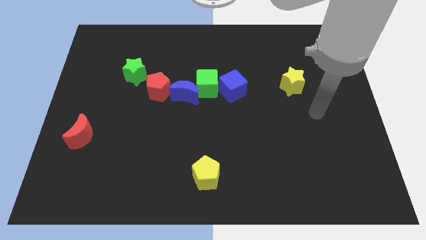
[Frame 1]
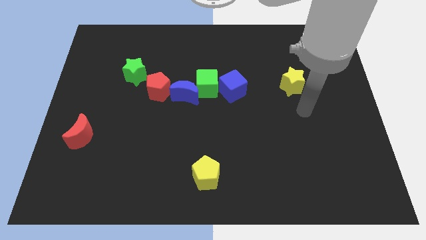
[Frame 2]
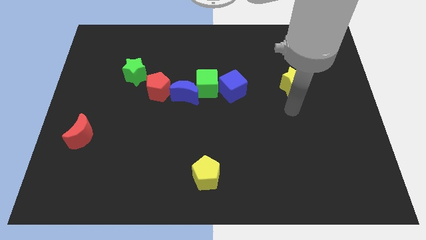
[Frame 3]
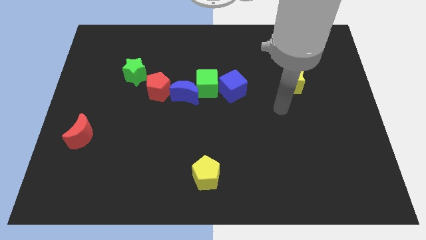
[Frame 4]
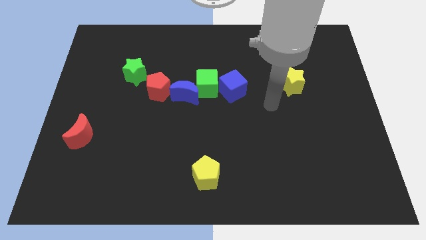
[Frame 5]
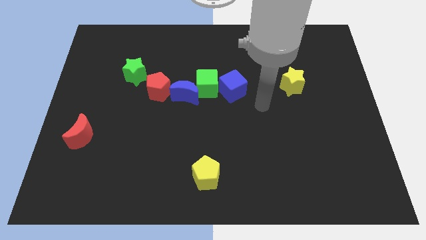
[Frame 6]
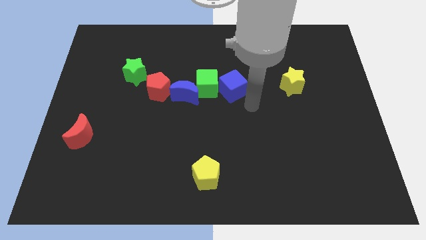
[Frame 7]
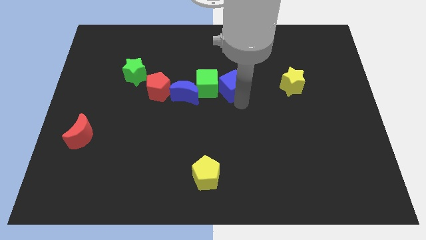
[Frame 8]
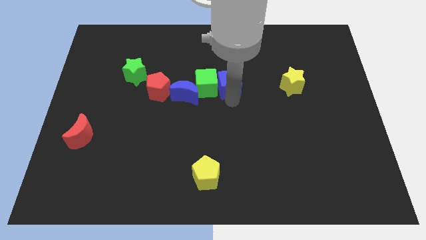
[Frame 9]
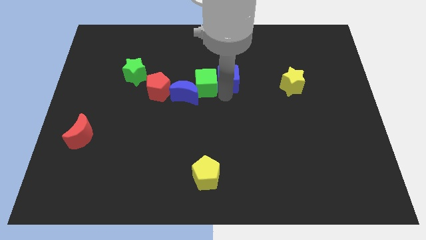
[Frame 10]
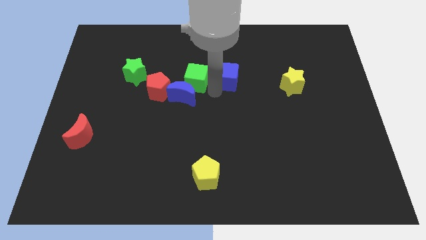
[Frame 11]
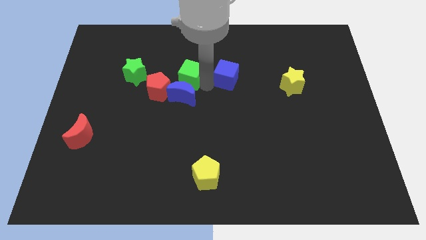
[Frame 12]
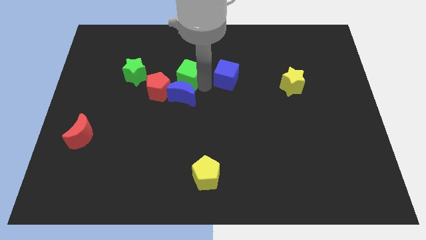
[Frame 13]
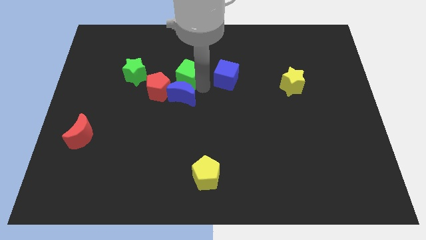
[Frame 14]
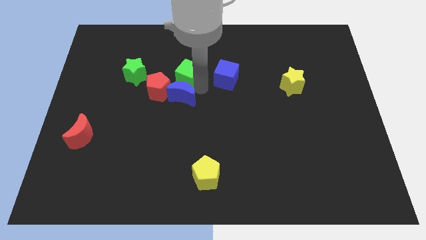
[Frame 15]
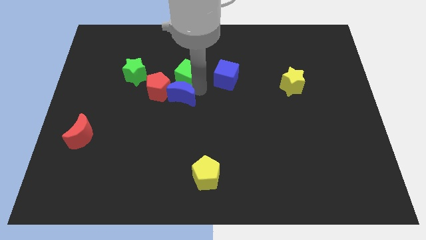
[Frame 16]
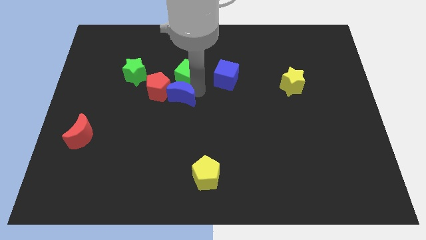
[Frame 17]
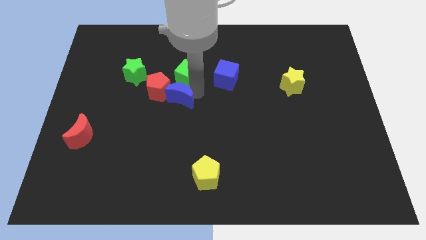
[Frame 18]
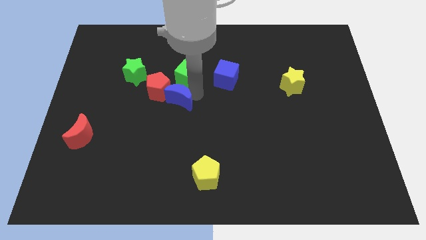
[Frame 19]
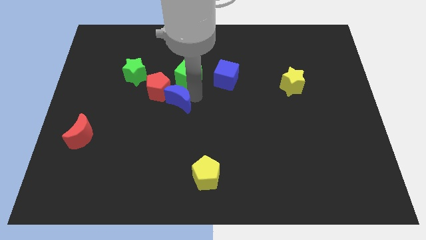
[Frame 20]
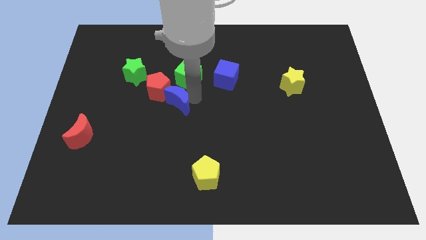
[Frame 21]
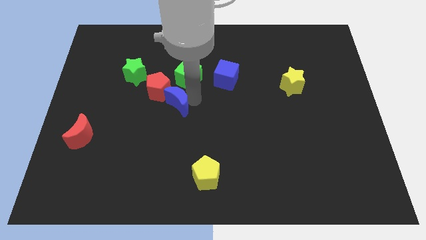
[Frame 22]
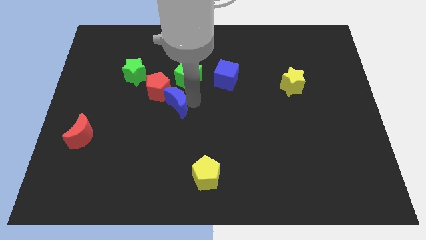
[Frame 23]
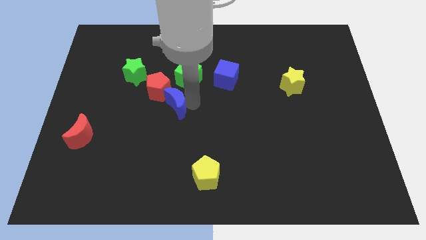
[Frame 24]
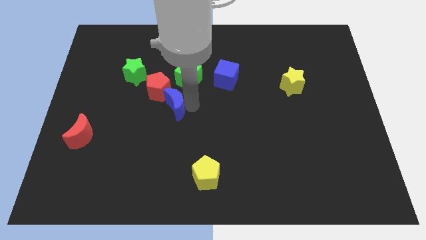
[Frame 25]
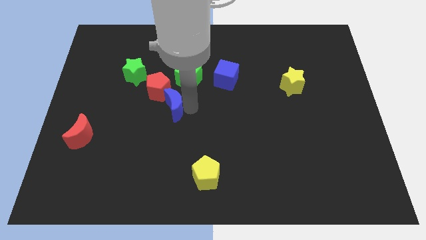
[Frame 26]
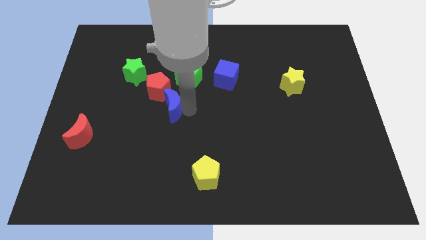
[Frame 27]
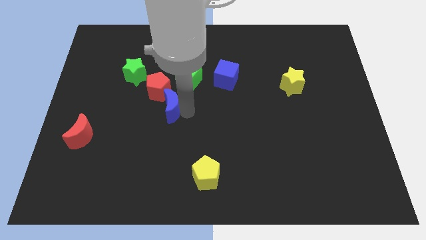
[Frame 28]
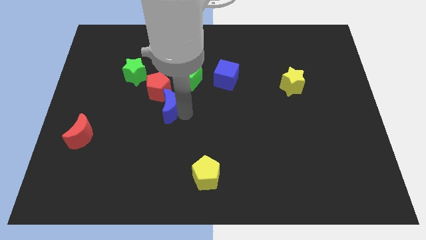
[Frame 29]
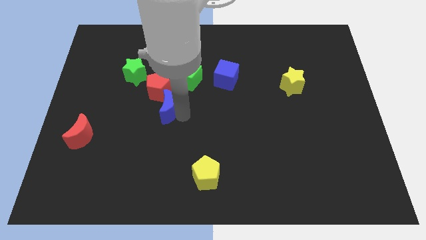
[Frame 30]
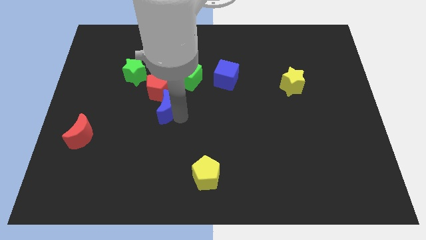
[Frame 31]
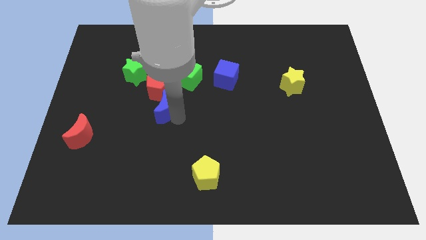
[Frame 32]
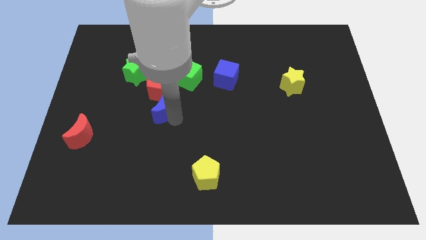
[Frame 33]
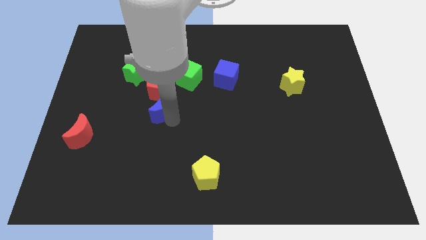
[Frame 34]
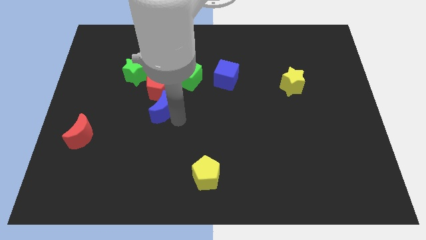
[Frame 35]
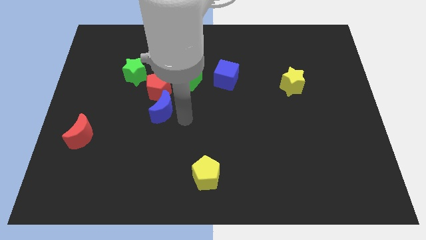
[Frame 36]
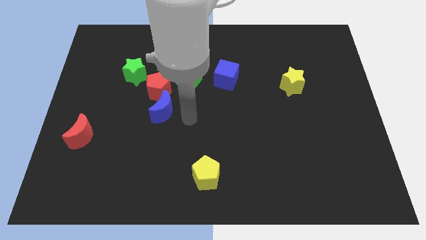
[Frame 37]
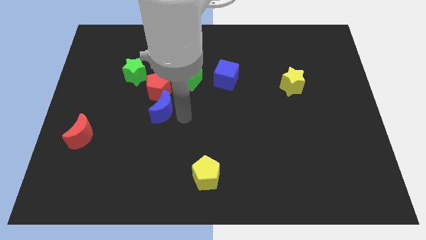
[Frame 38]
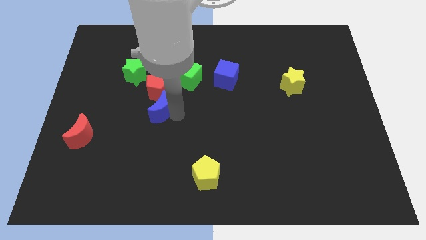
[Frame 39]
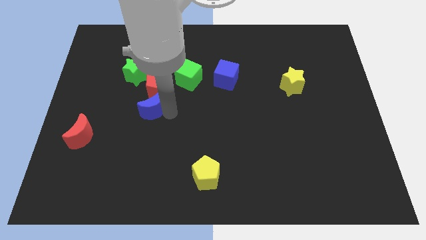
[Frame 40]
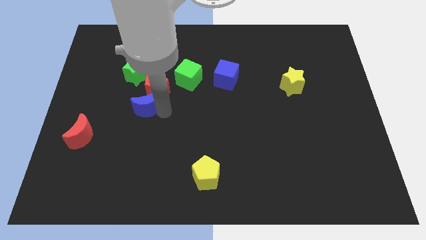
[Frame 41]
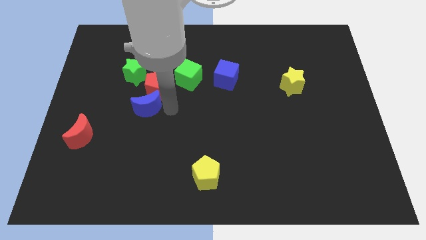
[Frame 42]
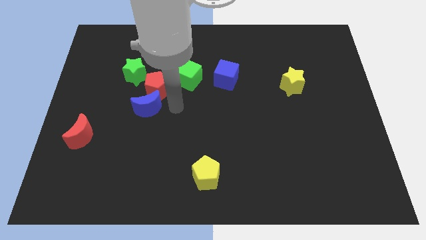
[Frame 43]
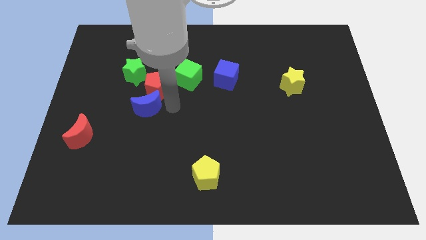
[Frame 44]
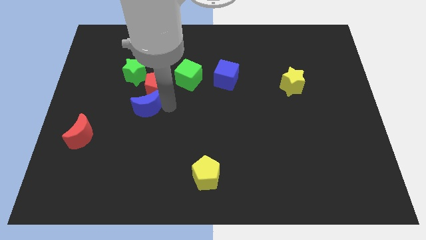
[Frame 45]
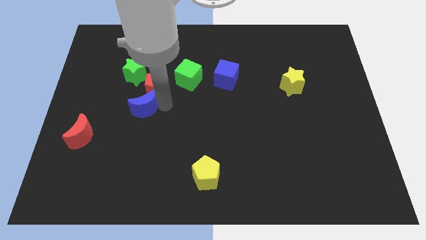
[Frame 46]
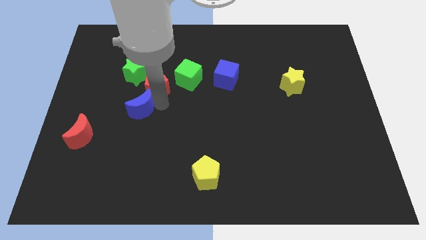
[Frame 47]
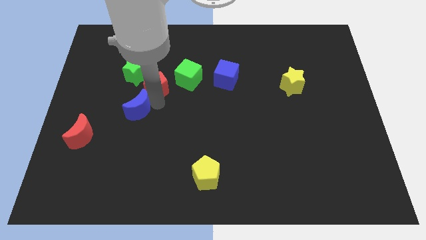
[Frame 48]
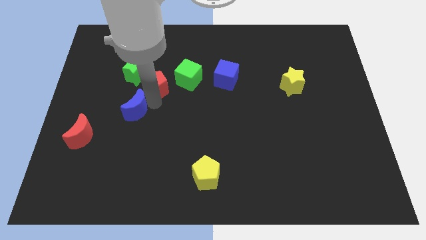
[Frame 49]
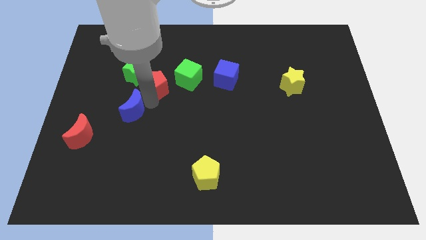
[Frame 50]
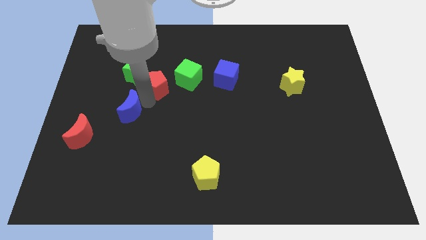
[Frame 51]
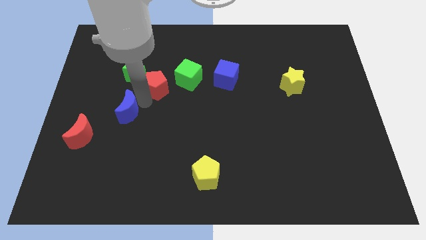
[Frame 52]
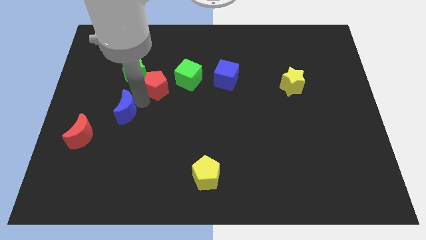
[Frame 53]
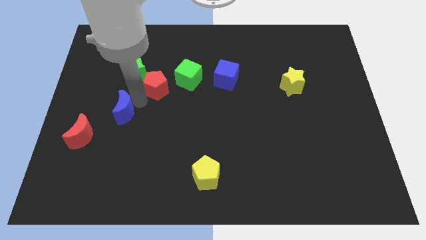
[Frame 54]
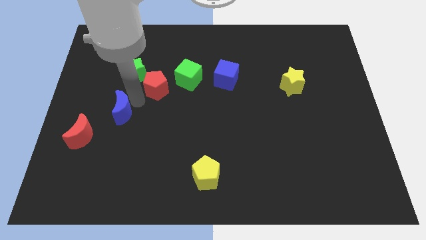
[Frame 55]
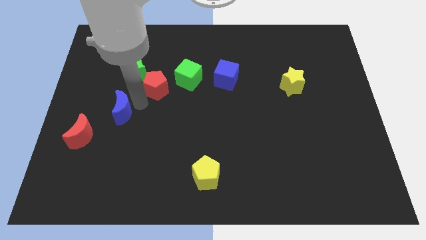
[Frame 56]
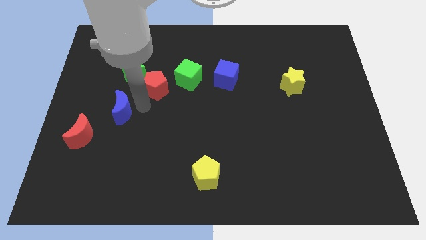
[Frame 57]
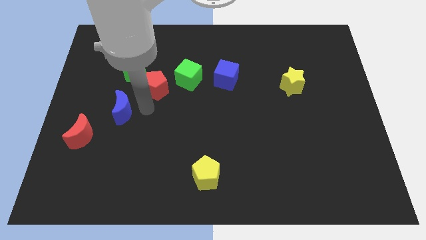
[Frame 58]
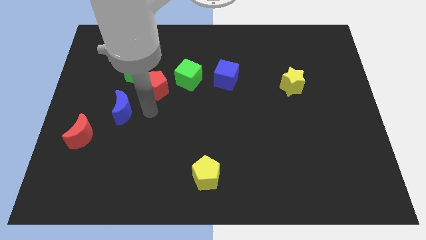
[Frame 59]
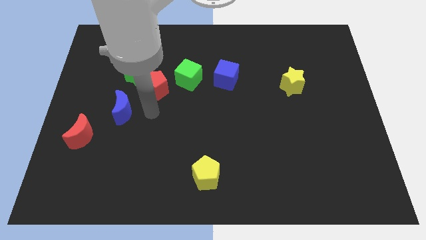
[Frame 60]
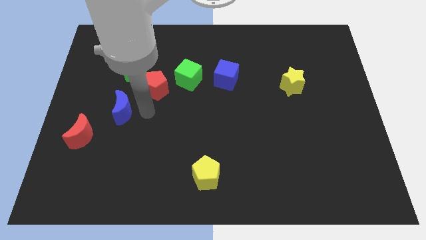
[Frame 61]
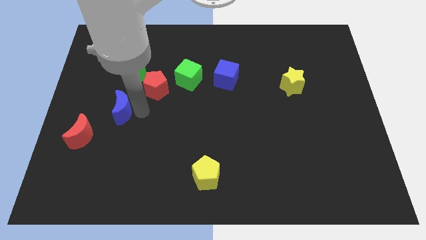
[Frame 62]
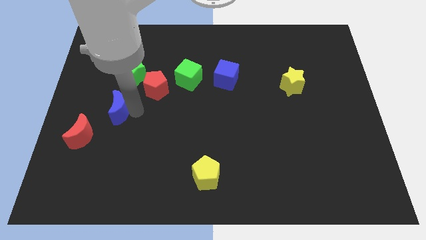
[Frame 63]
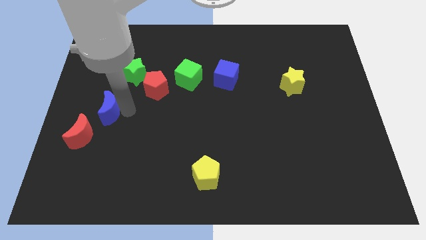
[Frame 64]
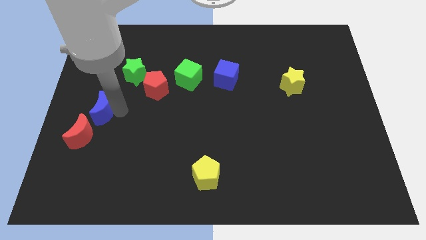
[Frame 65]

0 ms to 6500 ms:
move the blue moon to the left side of the board
